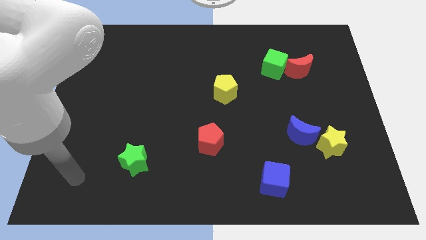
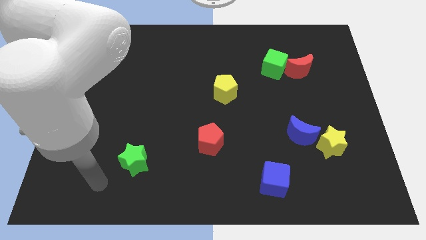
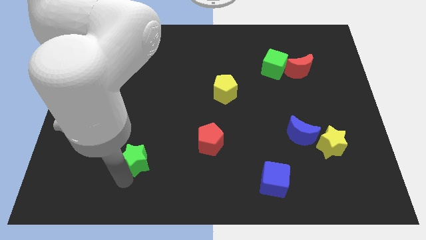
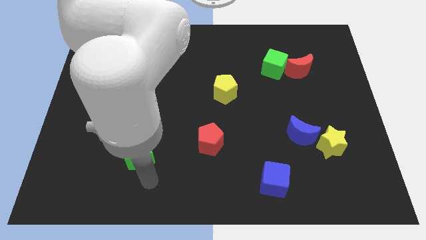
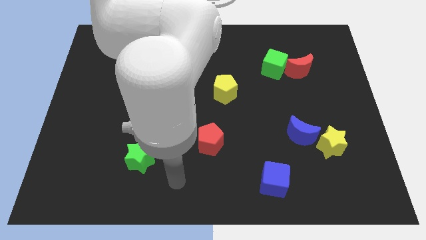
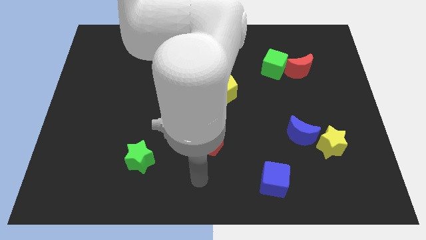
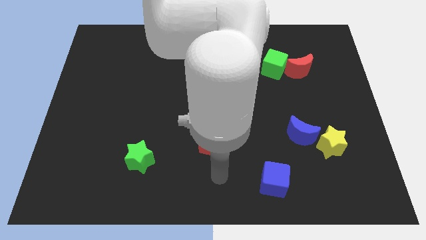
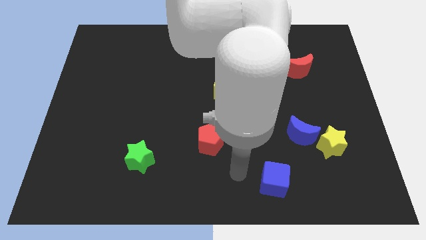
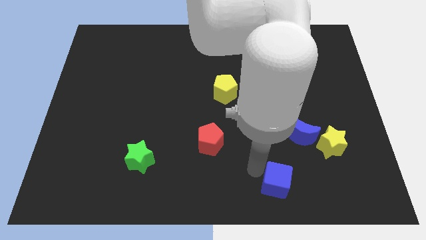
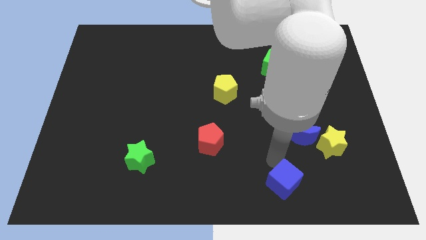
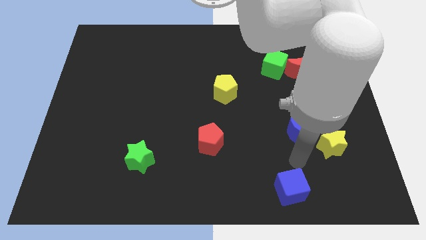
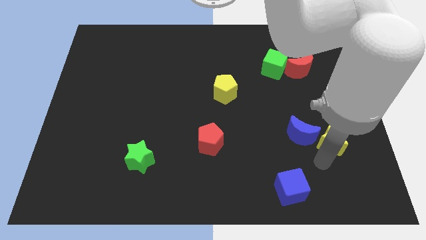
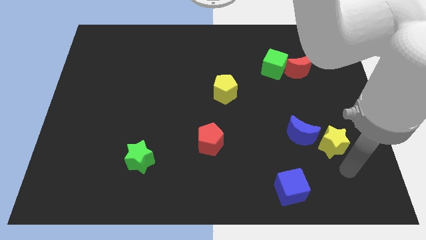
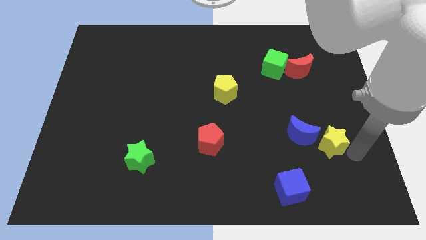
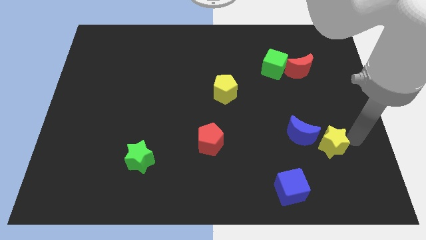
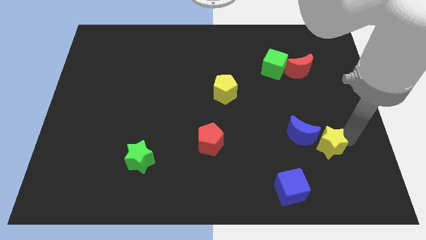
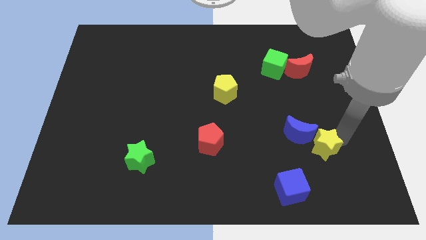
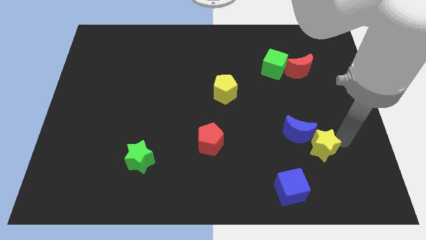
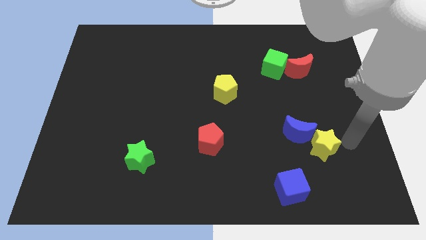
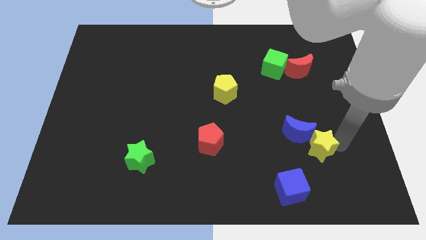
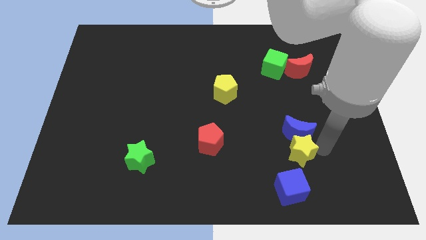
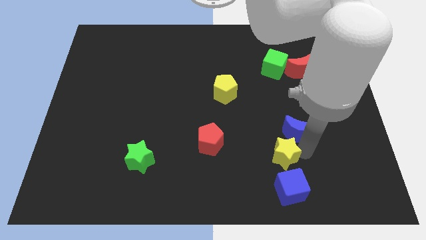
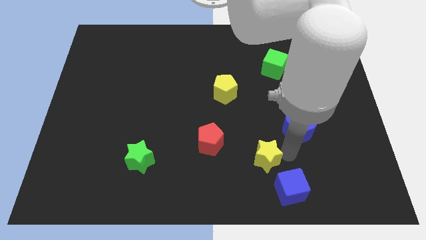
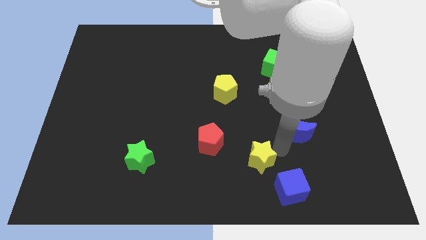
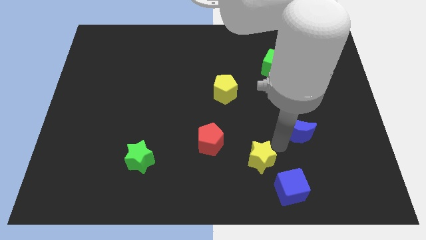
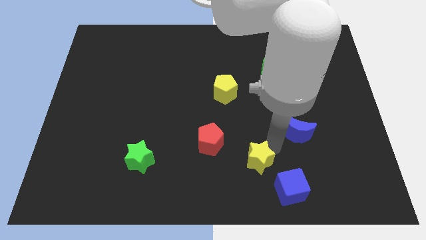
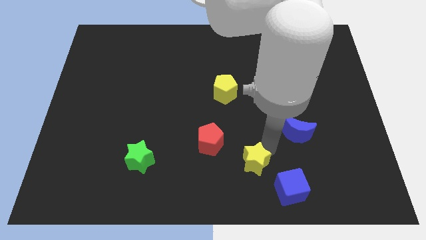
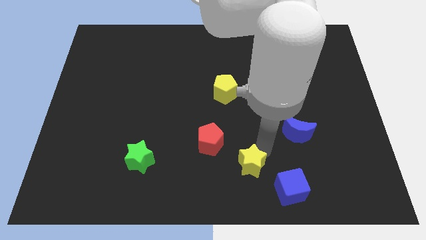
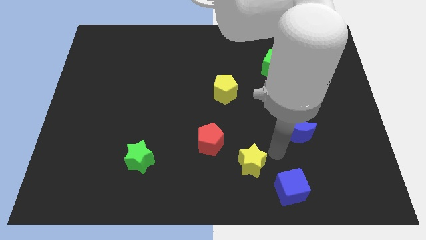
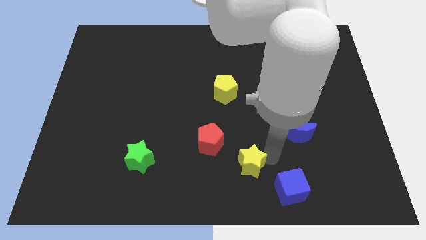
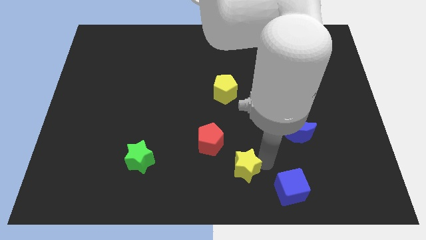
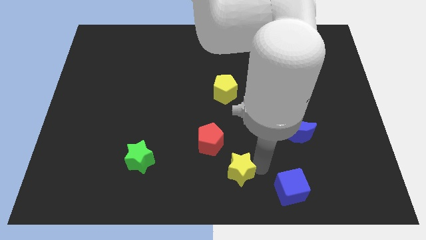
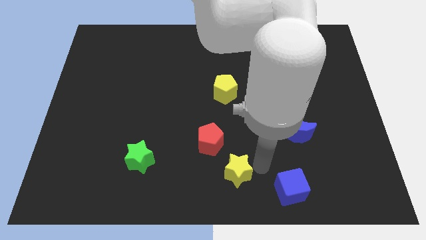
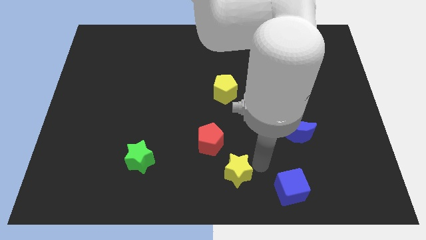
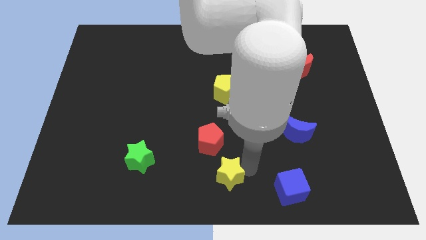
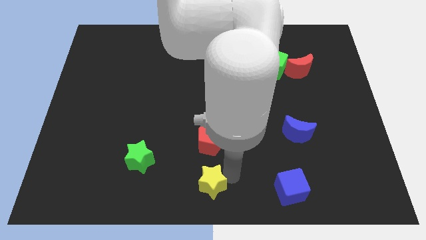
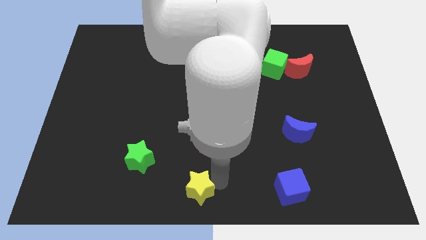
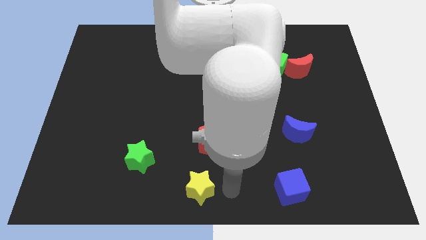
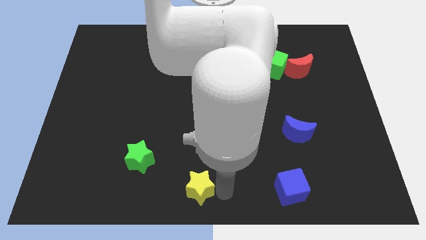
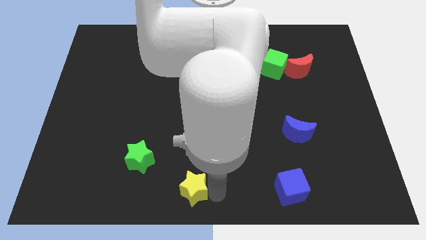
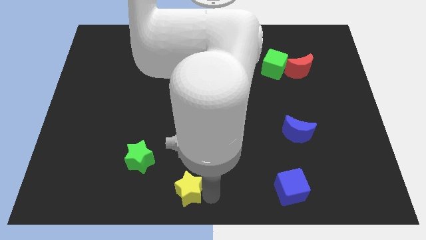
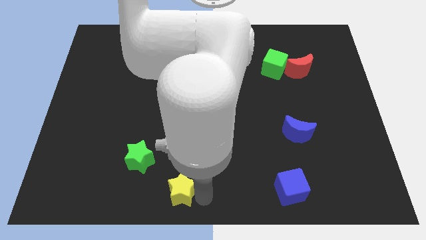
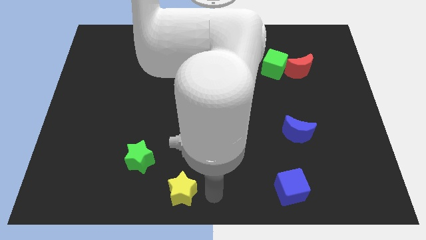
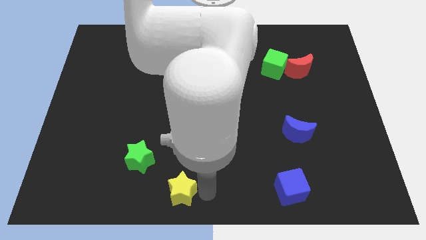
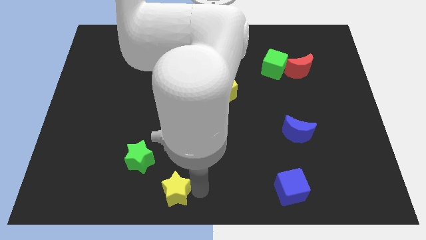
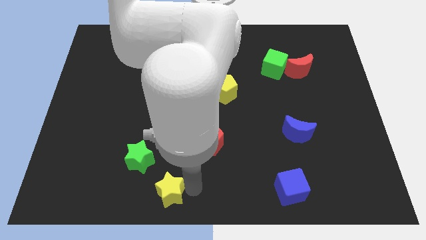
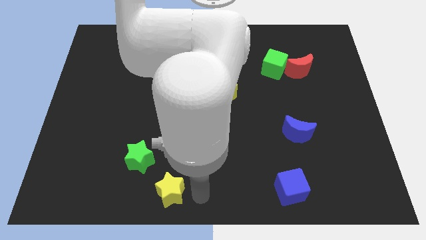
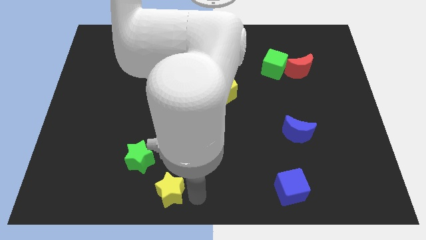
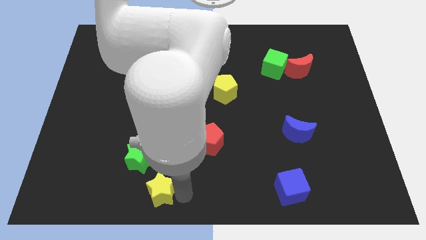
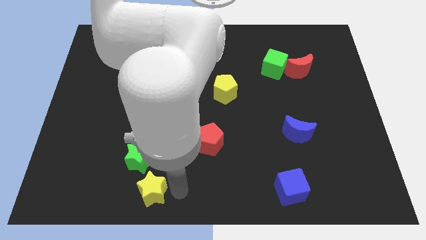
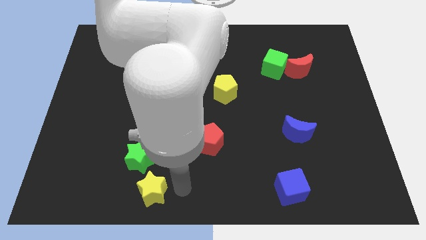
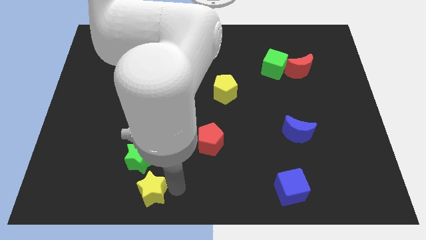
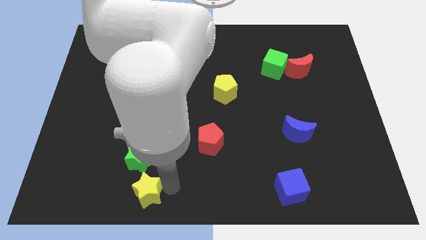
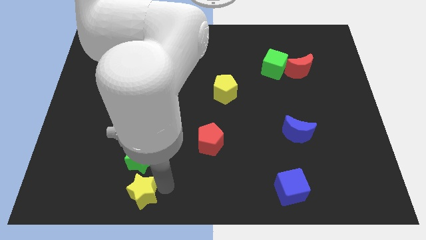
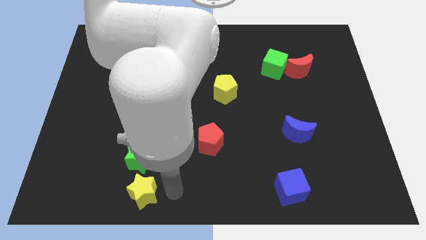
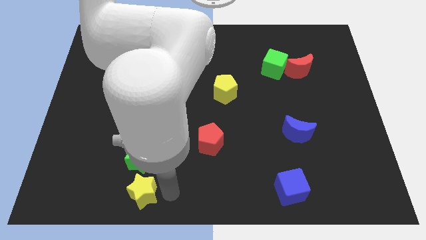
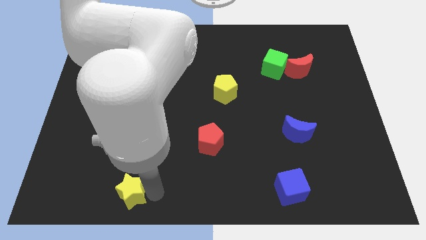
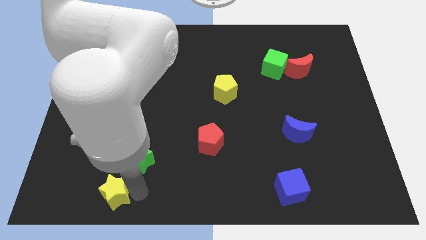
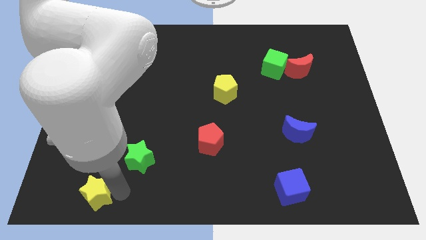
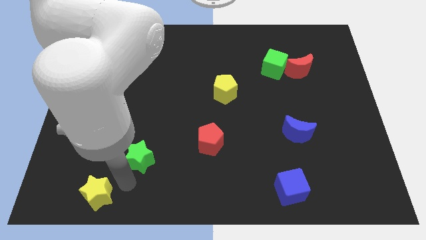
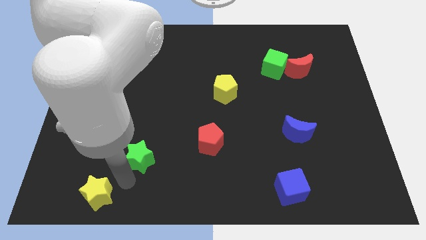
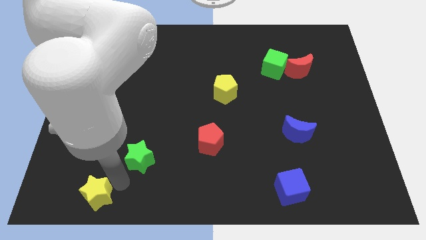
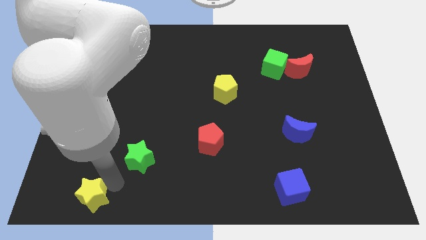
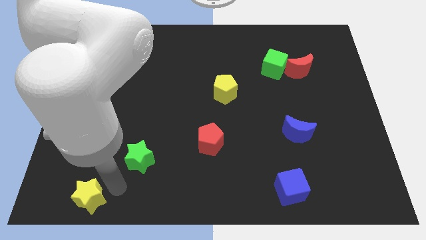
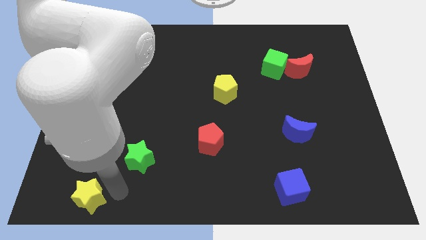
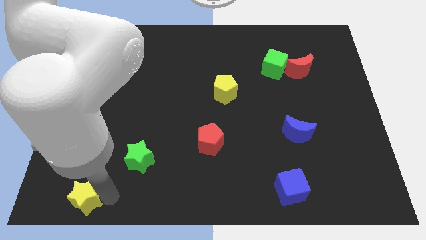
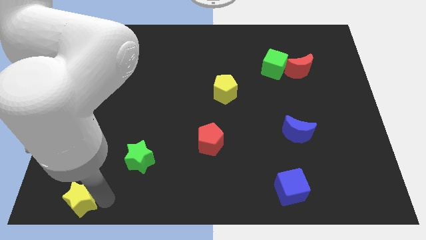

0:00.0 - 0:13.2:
move the yellow star to the bottom left
